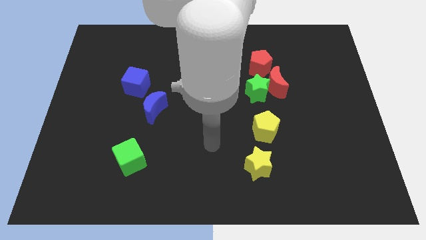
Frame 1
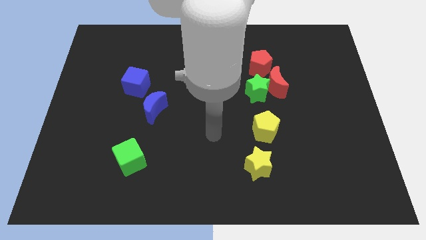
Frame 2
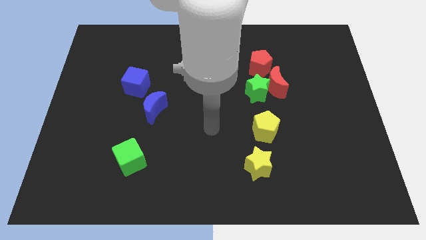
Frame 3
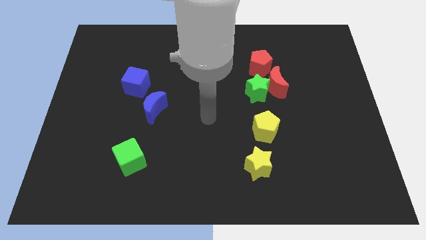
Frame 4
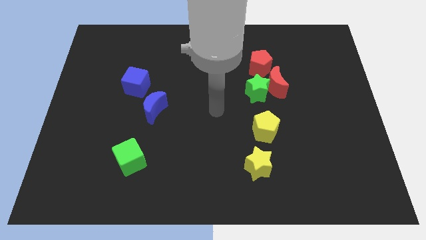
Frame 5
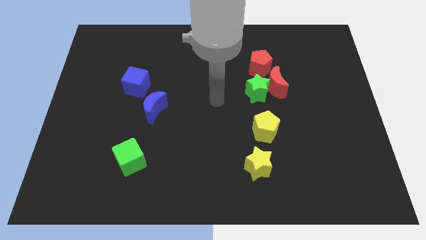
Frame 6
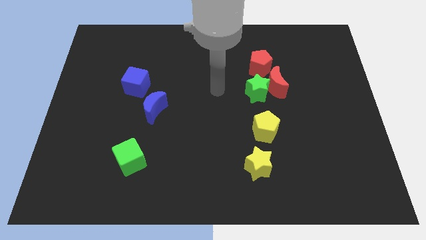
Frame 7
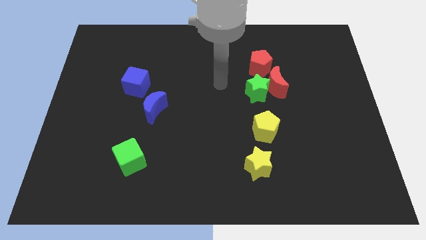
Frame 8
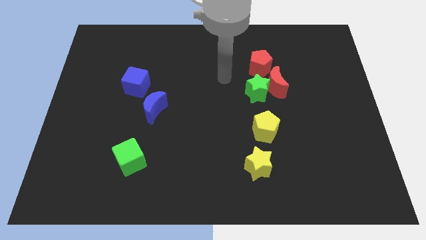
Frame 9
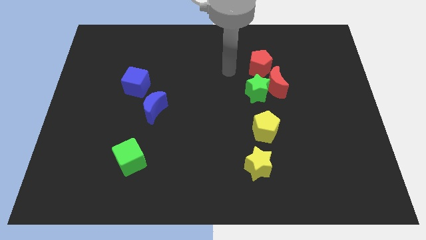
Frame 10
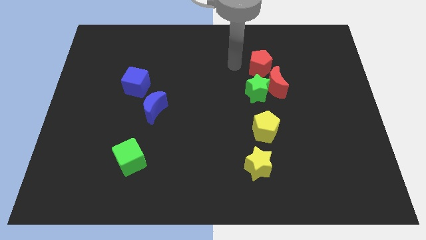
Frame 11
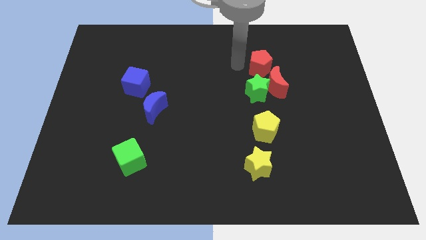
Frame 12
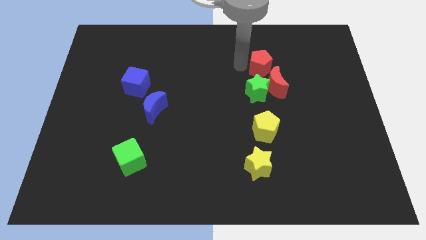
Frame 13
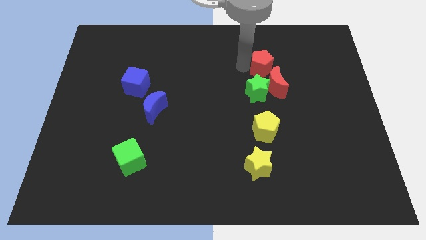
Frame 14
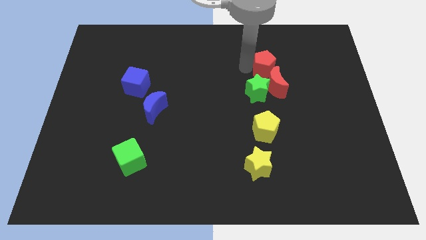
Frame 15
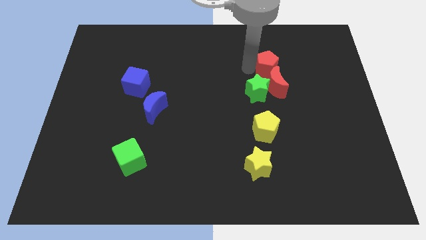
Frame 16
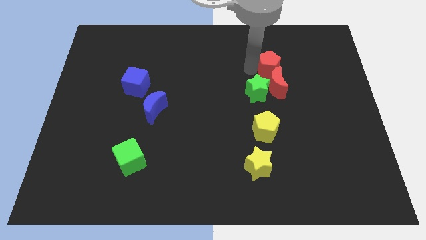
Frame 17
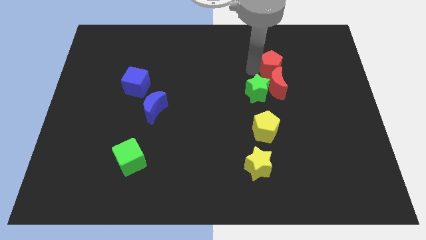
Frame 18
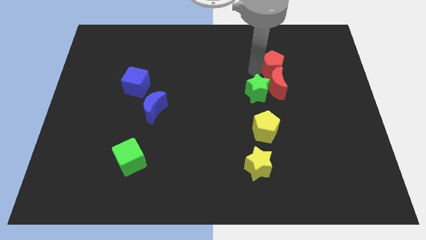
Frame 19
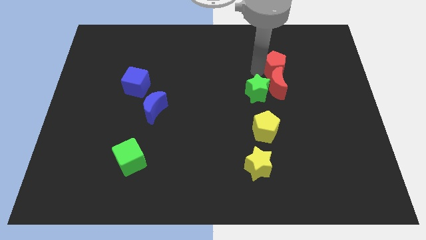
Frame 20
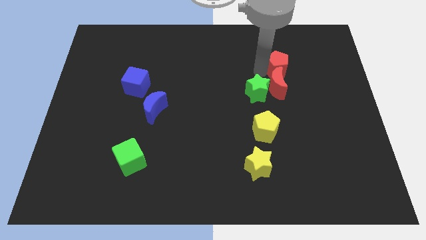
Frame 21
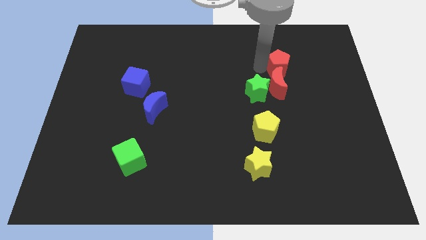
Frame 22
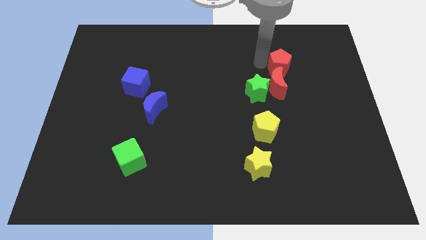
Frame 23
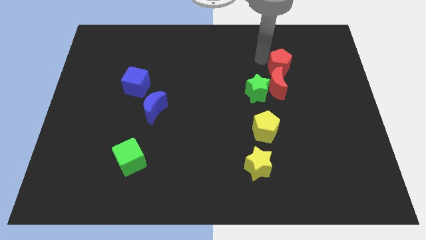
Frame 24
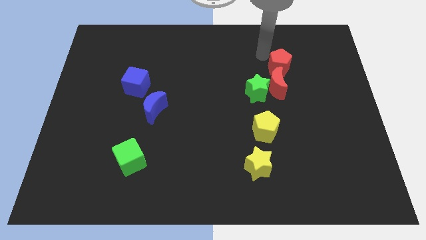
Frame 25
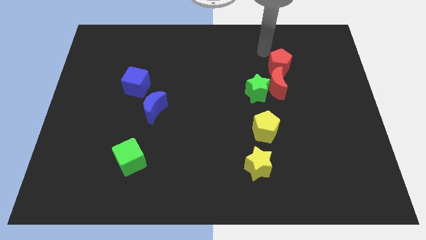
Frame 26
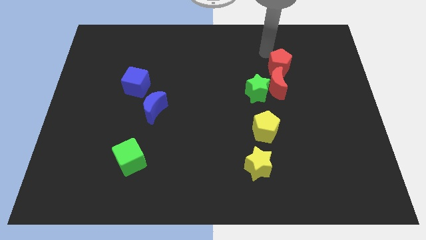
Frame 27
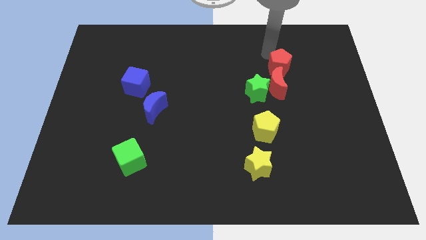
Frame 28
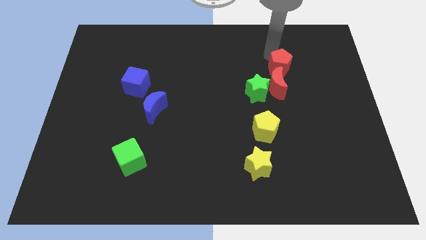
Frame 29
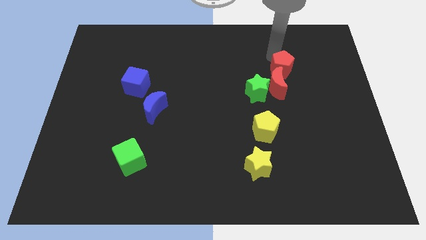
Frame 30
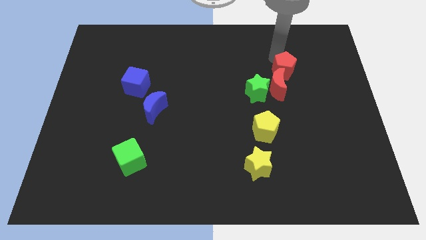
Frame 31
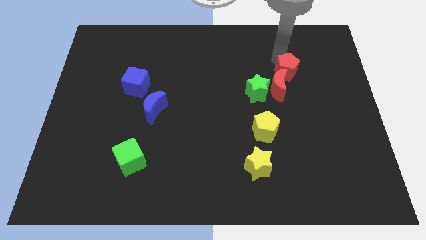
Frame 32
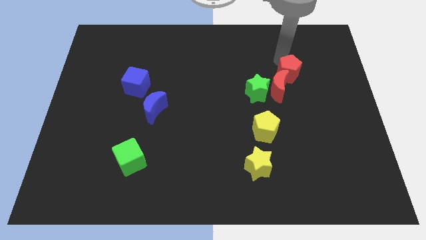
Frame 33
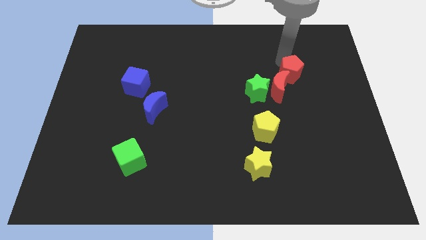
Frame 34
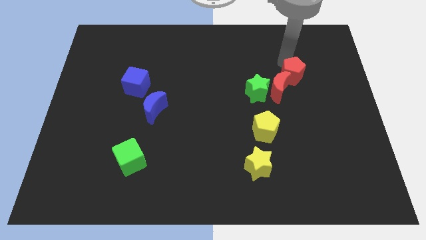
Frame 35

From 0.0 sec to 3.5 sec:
push the red pentagon diagonally downwards and to the right somewhat

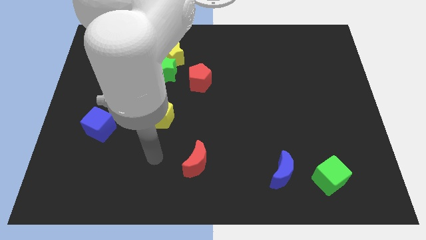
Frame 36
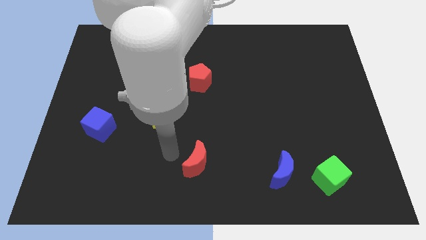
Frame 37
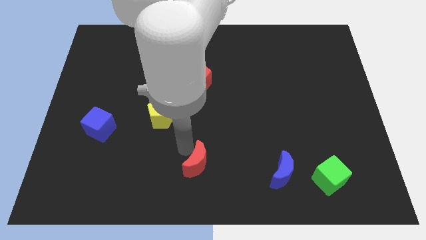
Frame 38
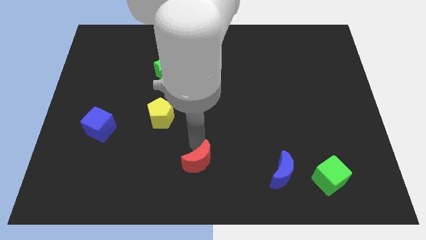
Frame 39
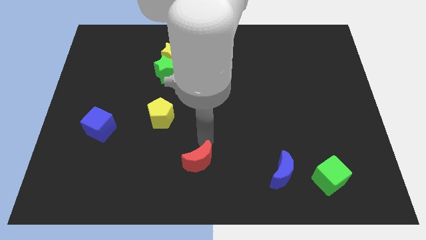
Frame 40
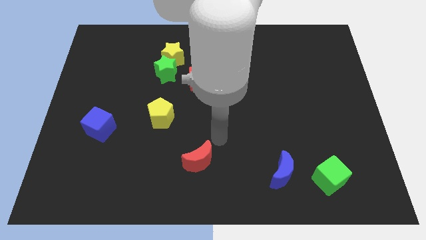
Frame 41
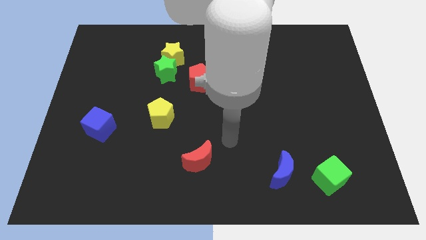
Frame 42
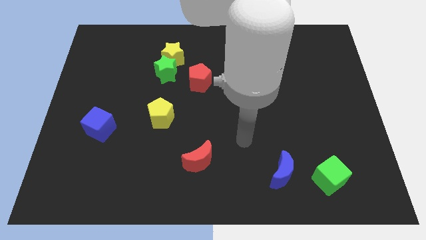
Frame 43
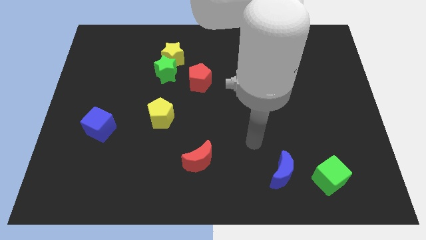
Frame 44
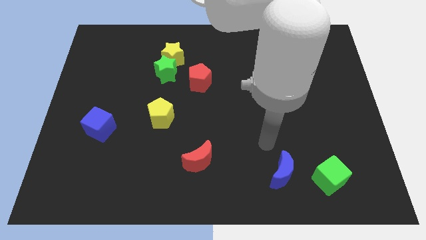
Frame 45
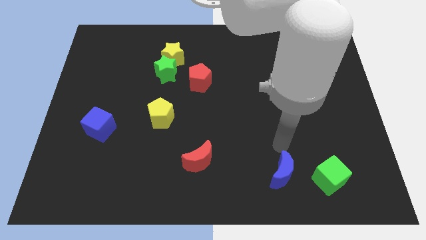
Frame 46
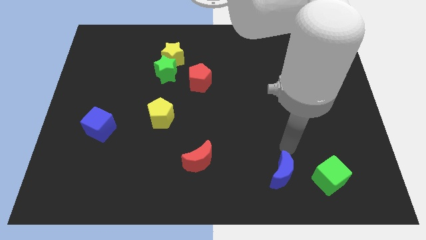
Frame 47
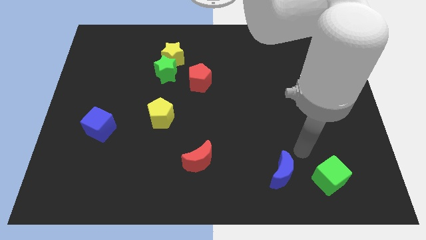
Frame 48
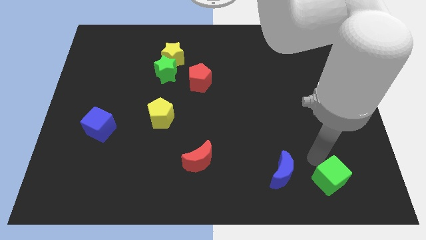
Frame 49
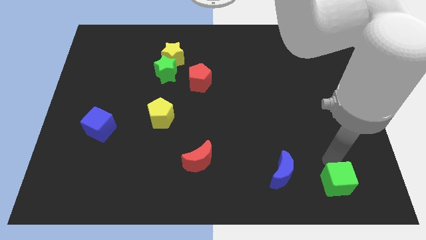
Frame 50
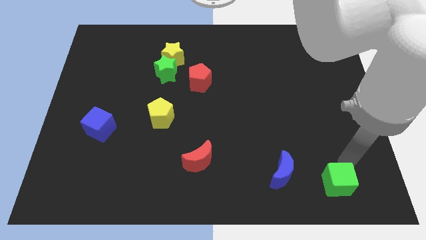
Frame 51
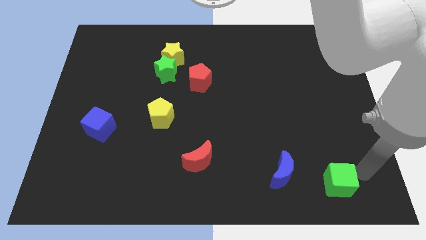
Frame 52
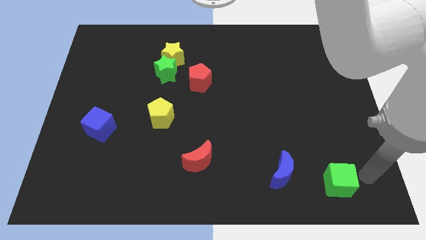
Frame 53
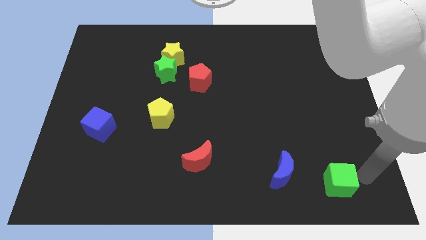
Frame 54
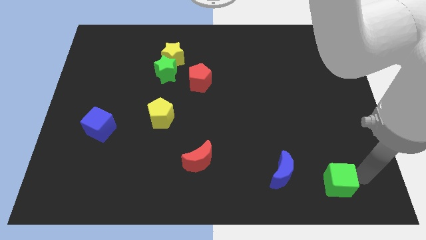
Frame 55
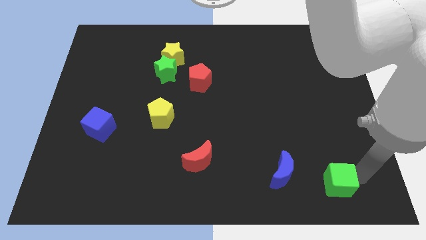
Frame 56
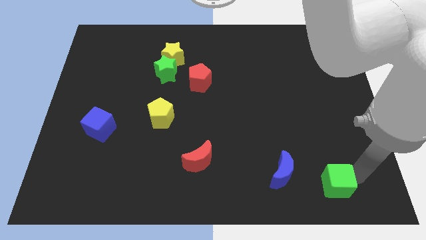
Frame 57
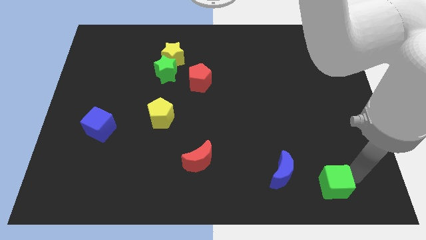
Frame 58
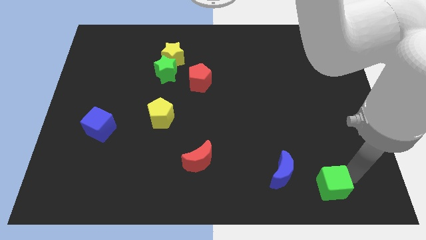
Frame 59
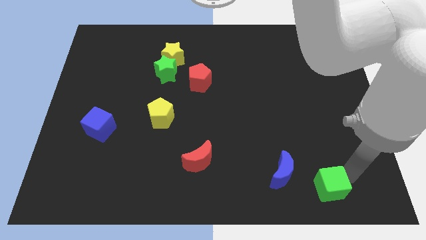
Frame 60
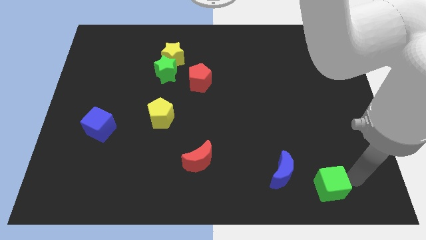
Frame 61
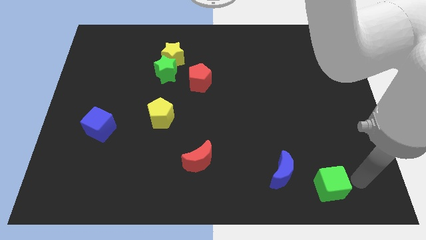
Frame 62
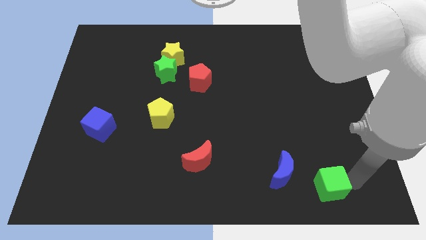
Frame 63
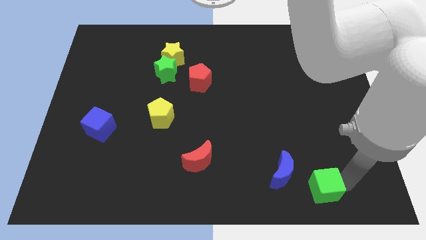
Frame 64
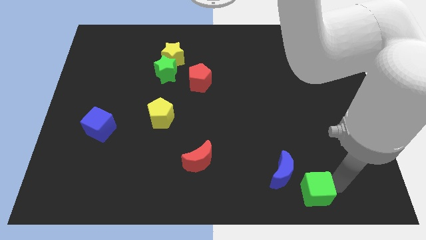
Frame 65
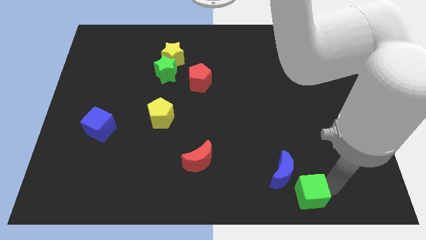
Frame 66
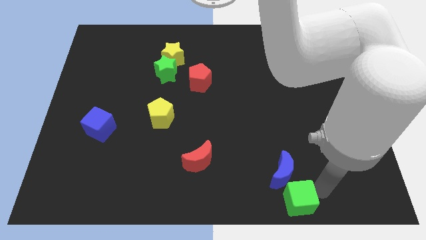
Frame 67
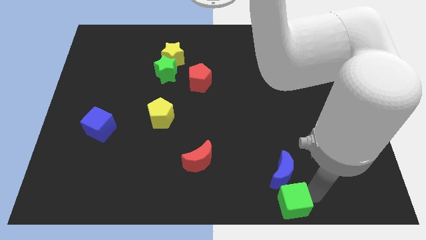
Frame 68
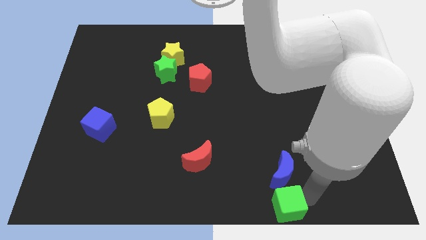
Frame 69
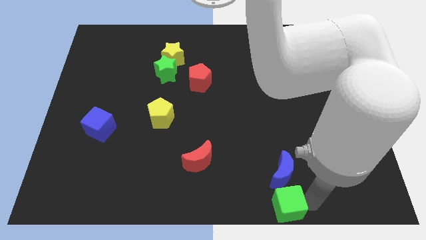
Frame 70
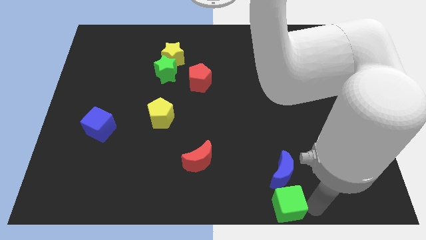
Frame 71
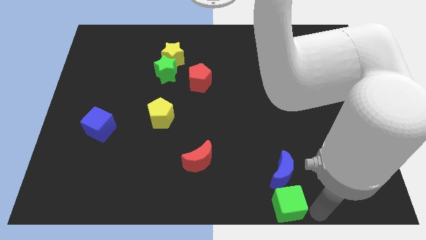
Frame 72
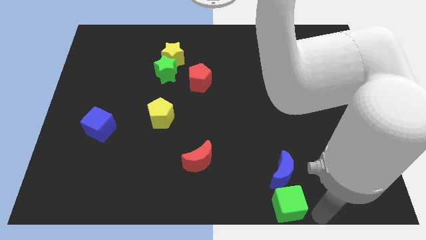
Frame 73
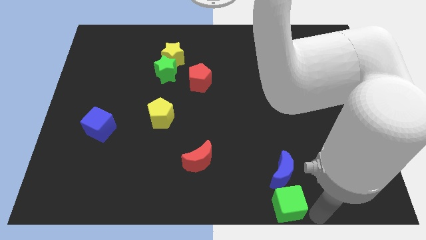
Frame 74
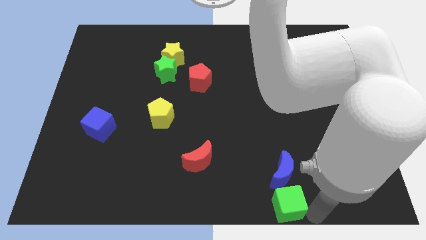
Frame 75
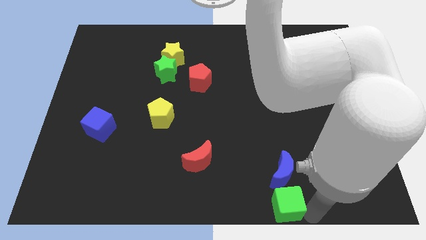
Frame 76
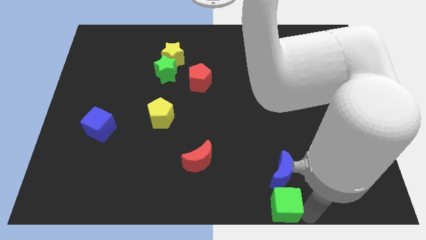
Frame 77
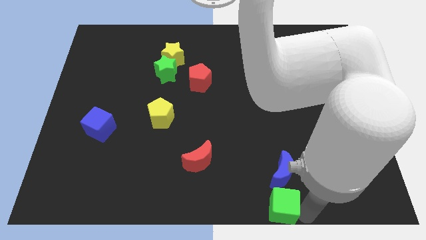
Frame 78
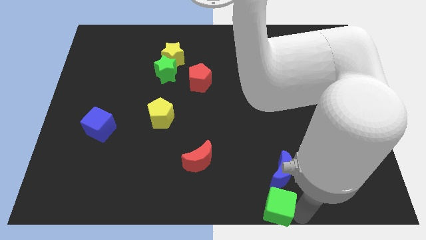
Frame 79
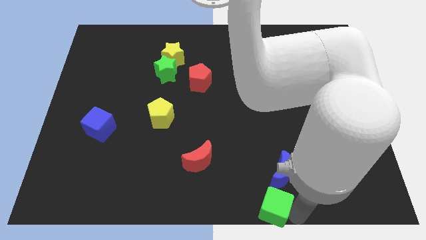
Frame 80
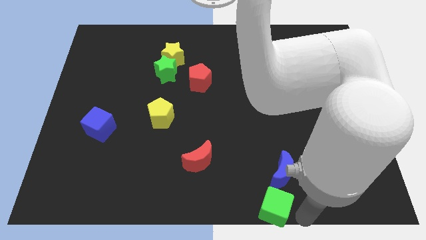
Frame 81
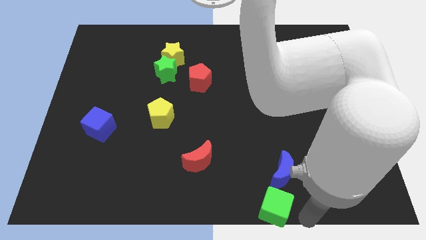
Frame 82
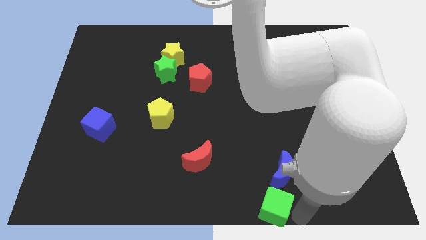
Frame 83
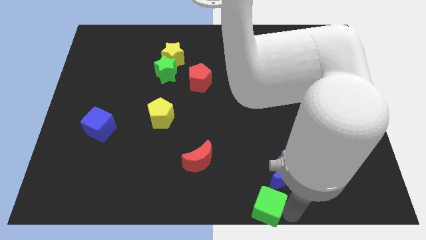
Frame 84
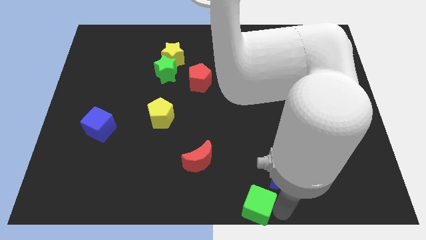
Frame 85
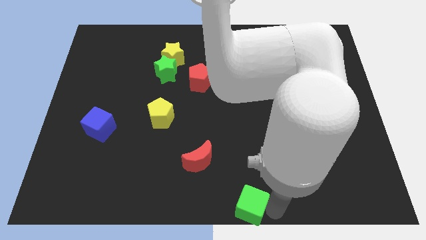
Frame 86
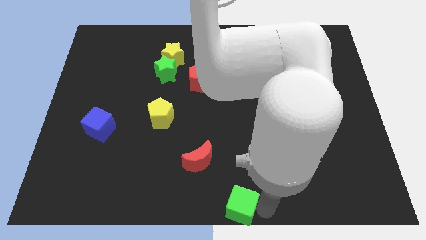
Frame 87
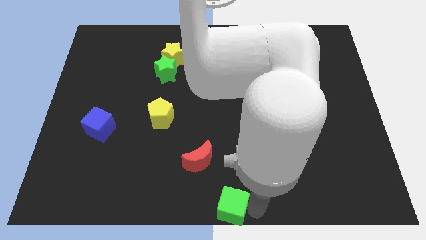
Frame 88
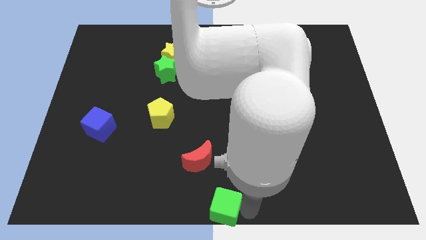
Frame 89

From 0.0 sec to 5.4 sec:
push the green cube to the left
